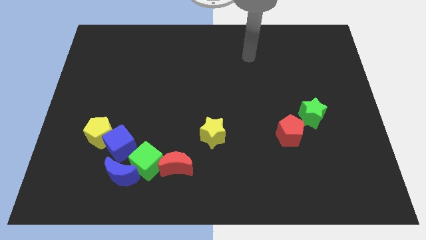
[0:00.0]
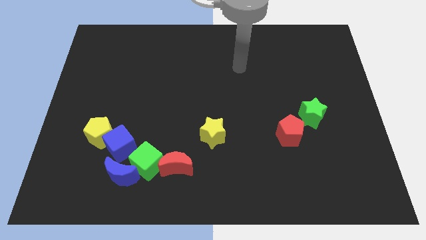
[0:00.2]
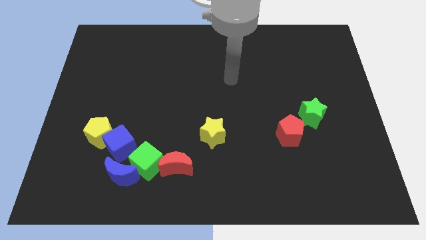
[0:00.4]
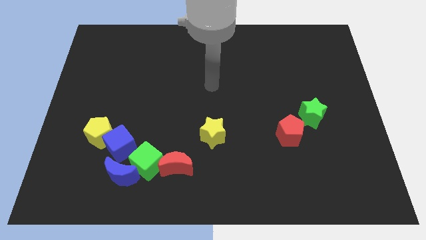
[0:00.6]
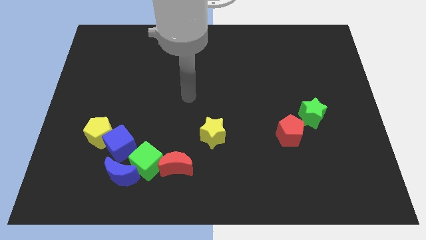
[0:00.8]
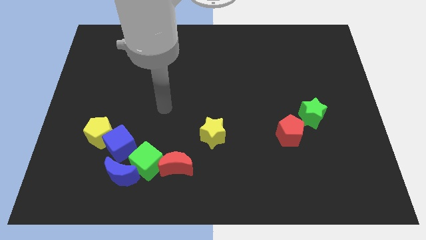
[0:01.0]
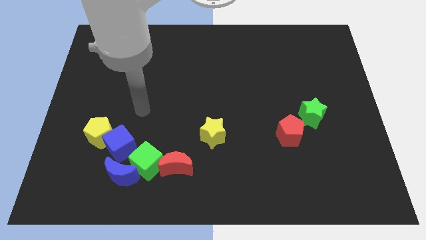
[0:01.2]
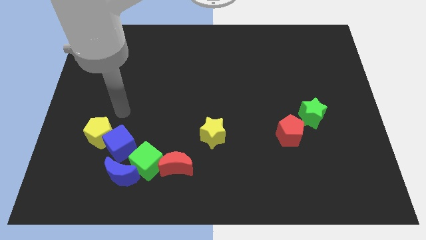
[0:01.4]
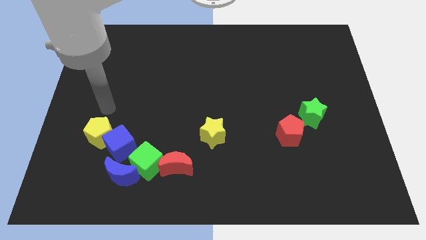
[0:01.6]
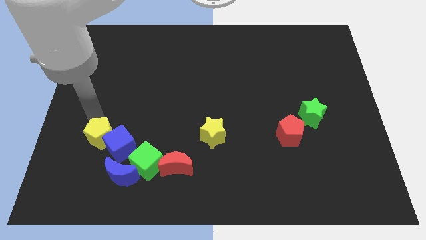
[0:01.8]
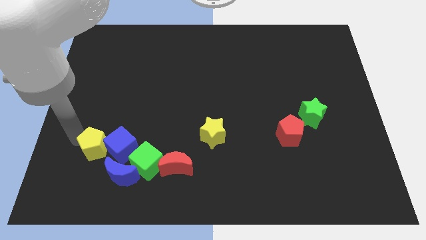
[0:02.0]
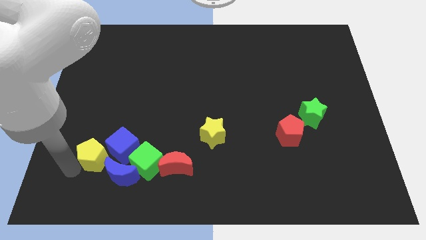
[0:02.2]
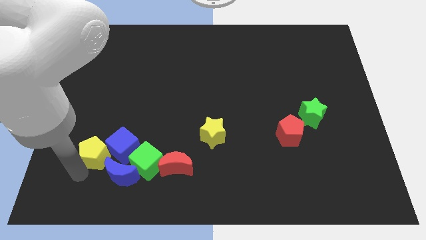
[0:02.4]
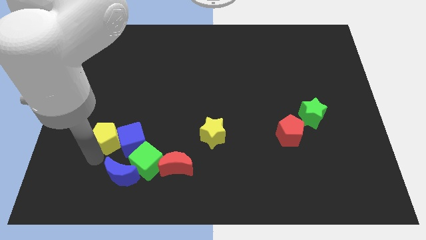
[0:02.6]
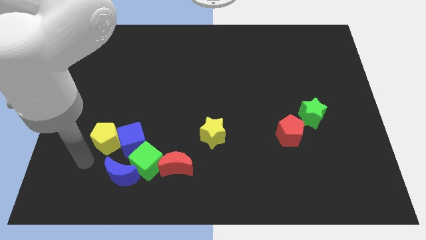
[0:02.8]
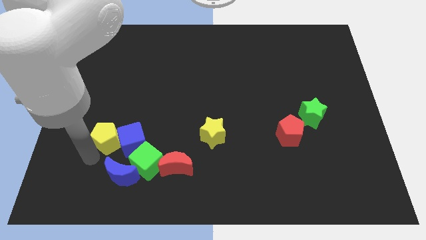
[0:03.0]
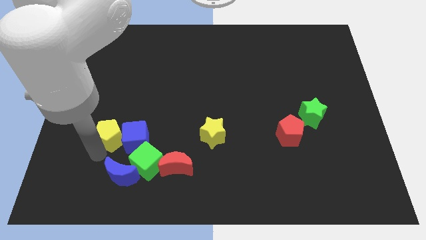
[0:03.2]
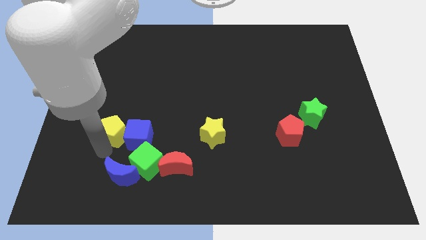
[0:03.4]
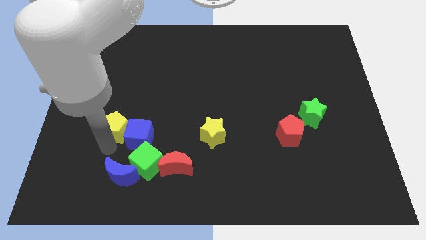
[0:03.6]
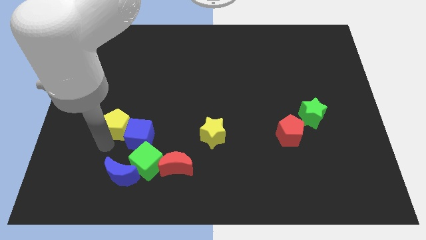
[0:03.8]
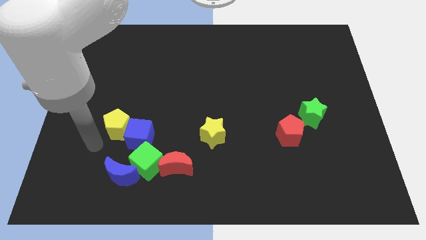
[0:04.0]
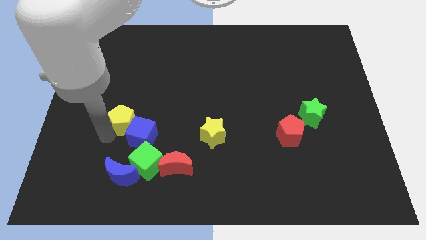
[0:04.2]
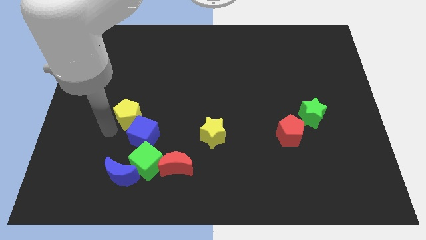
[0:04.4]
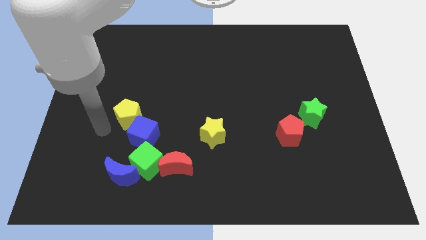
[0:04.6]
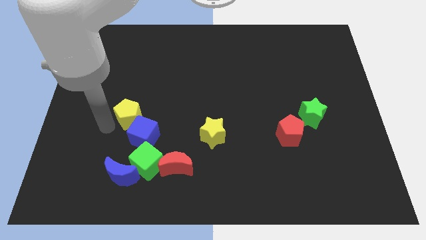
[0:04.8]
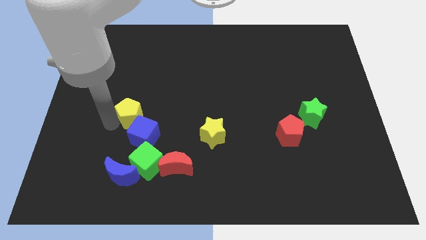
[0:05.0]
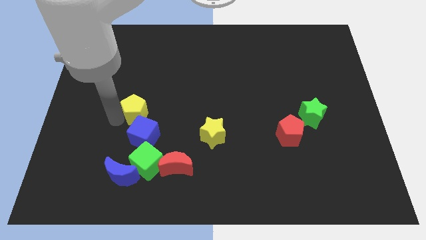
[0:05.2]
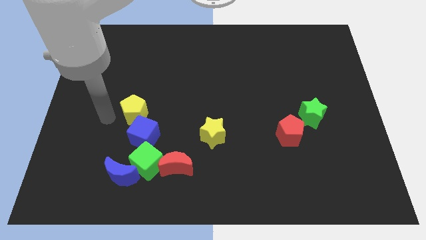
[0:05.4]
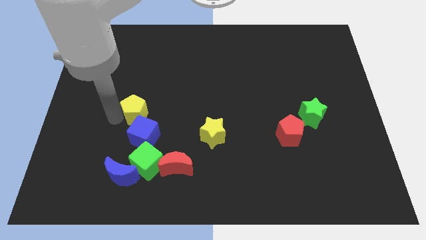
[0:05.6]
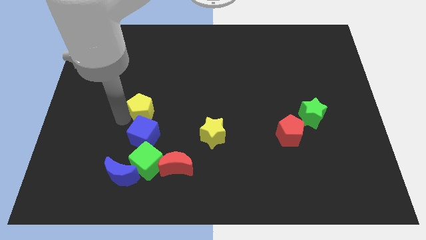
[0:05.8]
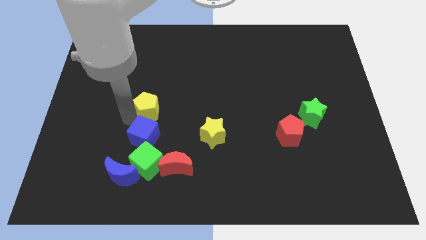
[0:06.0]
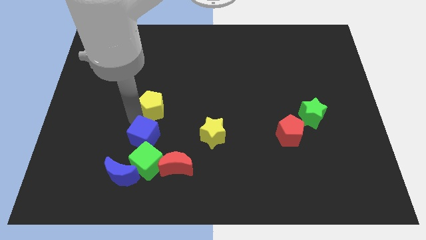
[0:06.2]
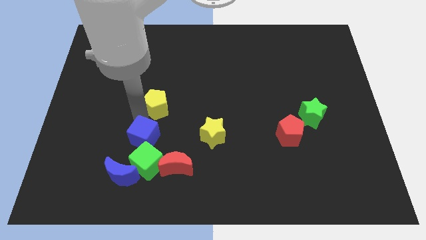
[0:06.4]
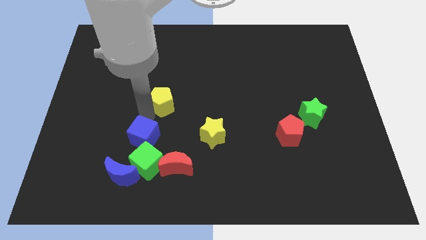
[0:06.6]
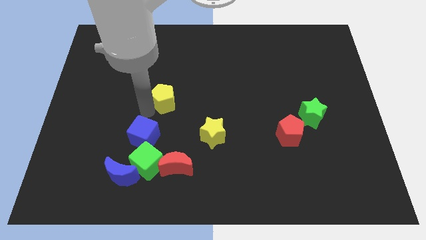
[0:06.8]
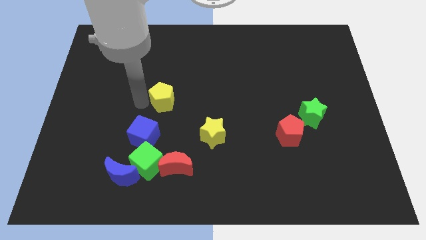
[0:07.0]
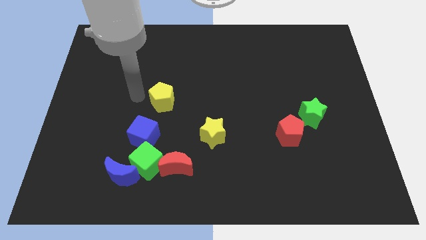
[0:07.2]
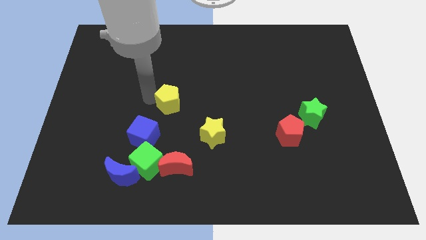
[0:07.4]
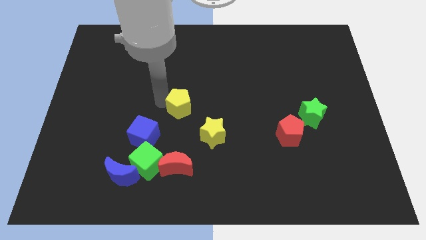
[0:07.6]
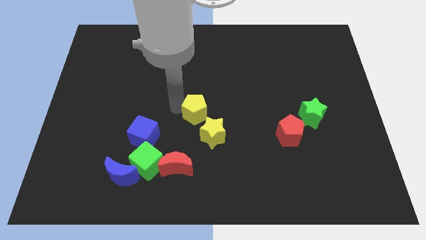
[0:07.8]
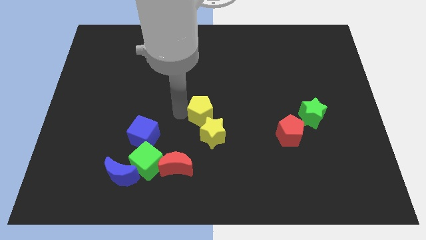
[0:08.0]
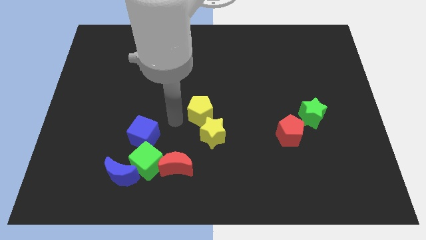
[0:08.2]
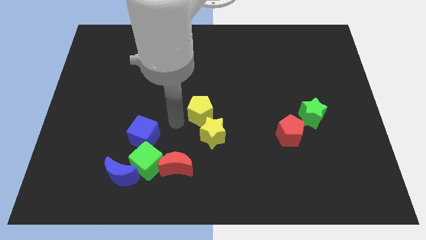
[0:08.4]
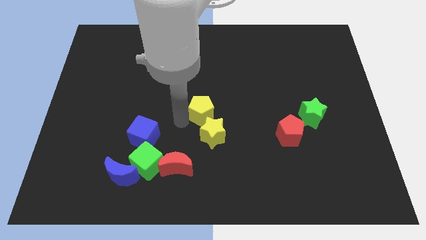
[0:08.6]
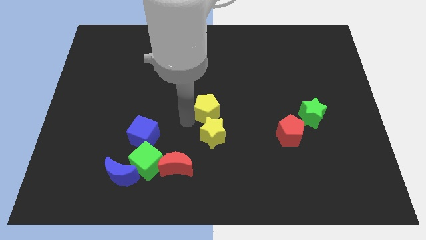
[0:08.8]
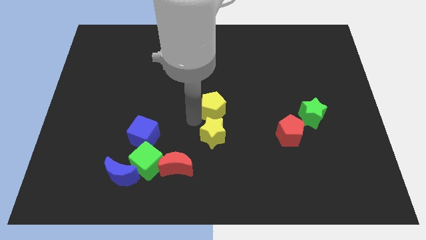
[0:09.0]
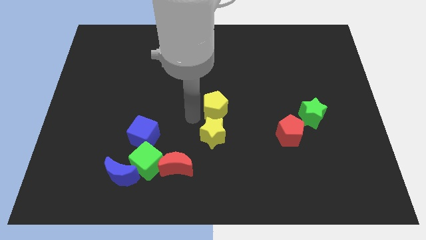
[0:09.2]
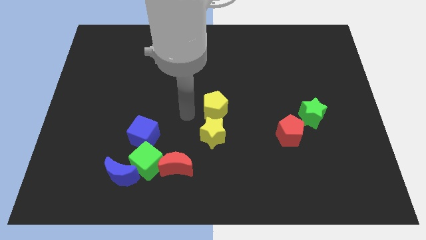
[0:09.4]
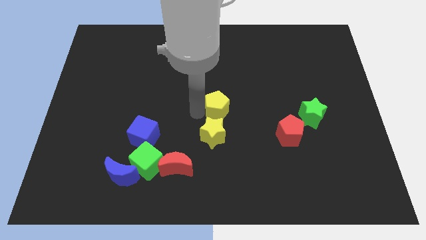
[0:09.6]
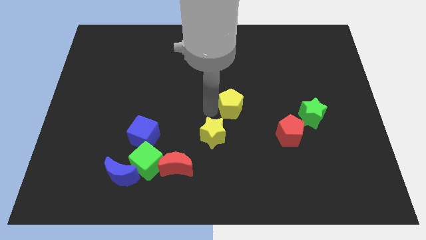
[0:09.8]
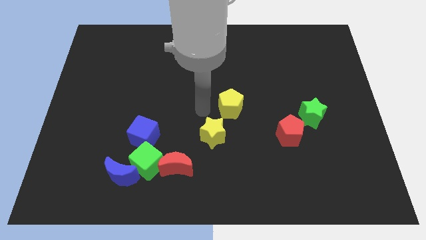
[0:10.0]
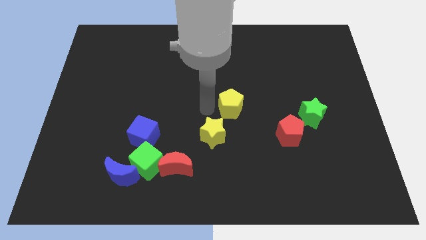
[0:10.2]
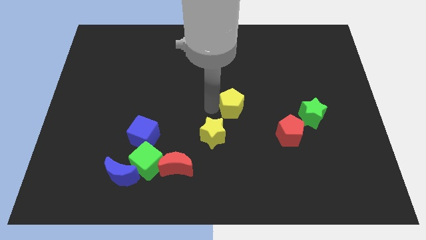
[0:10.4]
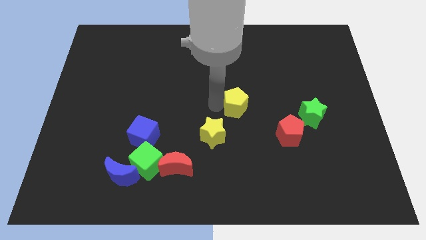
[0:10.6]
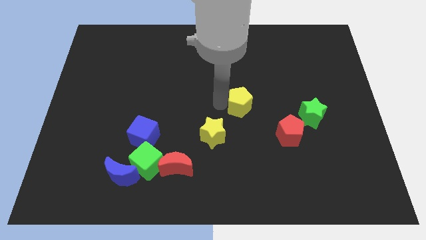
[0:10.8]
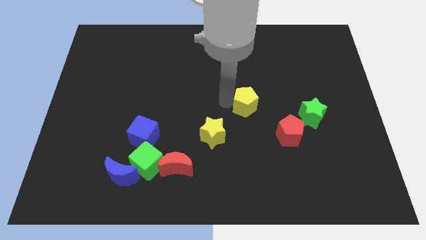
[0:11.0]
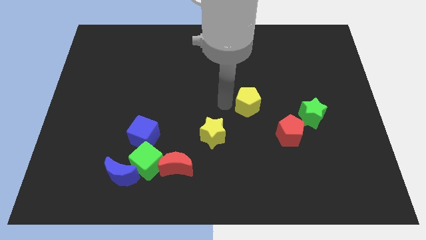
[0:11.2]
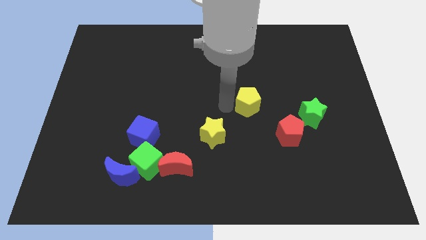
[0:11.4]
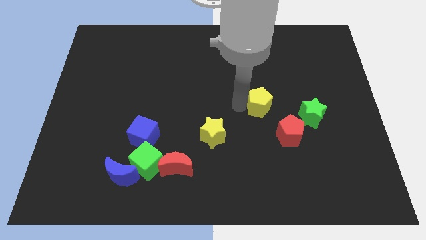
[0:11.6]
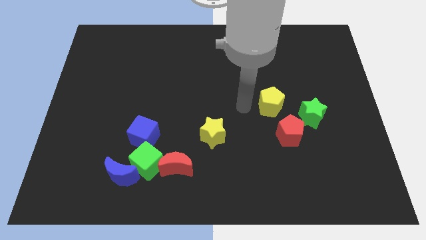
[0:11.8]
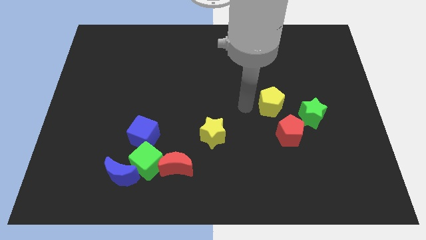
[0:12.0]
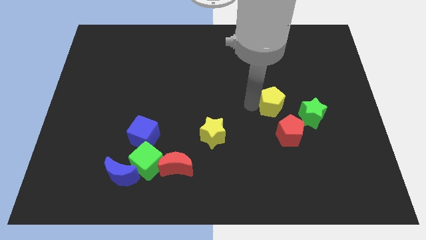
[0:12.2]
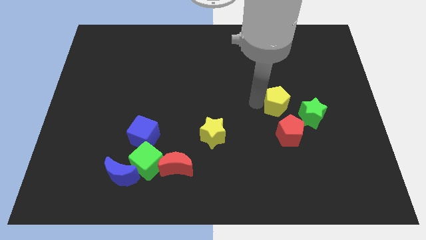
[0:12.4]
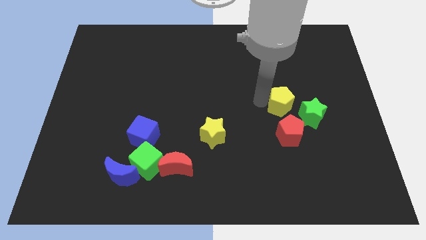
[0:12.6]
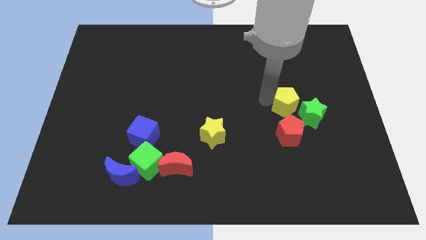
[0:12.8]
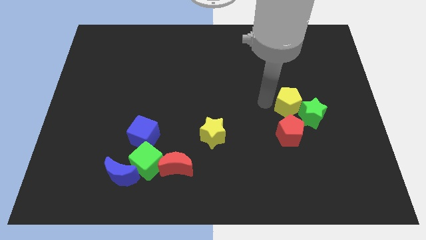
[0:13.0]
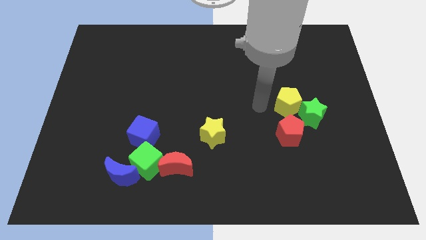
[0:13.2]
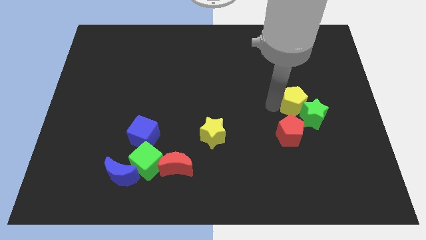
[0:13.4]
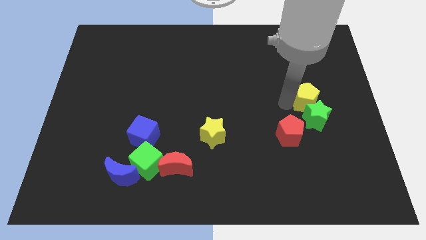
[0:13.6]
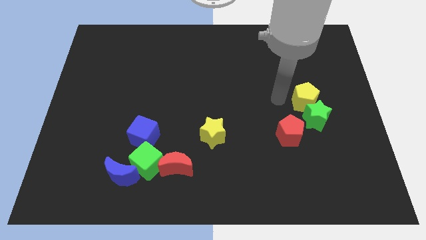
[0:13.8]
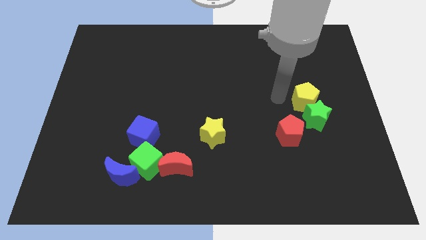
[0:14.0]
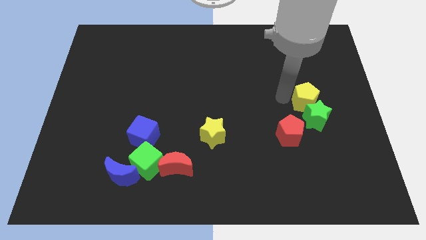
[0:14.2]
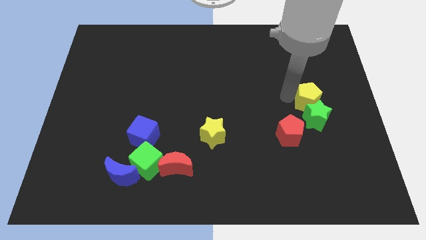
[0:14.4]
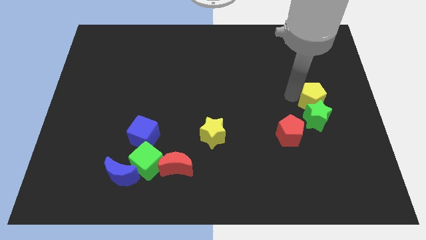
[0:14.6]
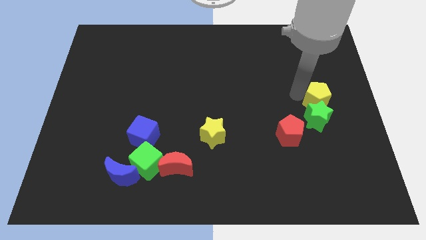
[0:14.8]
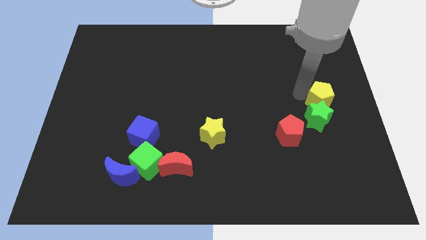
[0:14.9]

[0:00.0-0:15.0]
put the yellow pentagon to the right side of the board
